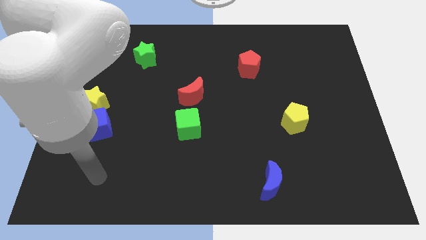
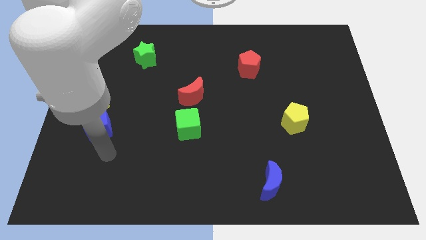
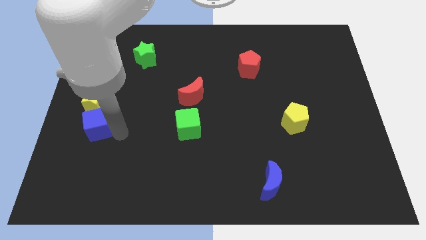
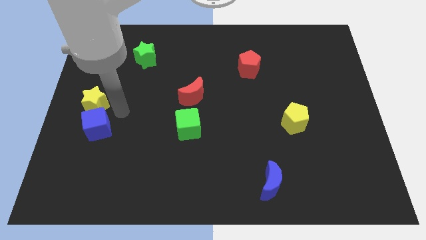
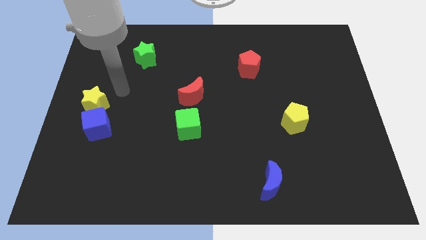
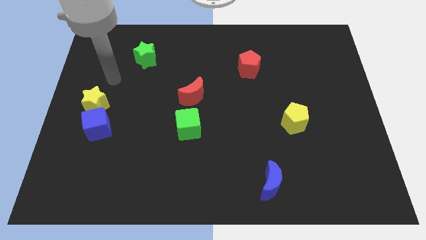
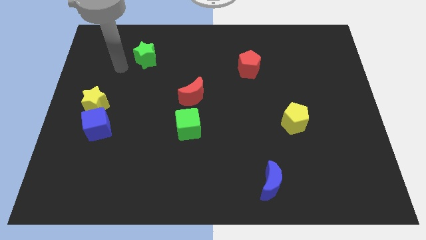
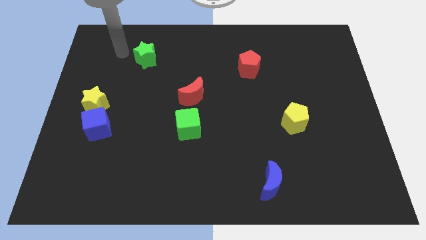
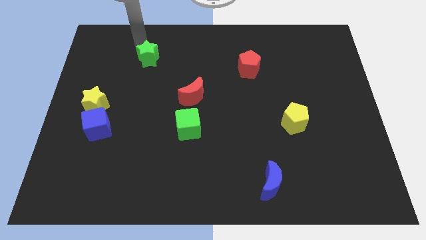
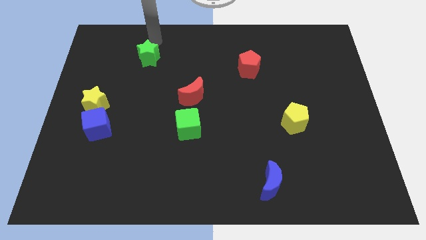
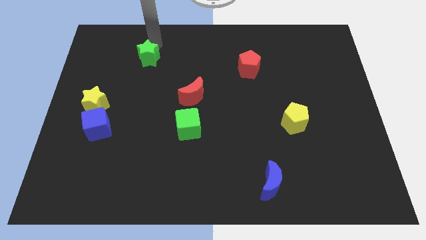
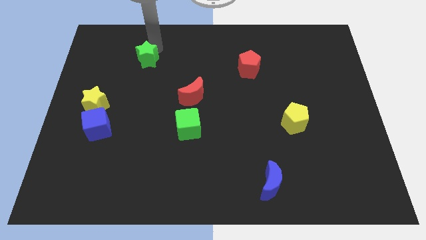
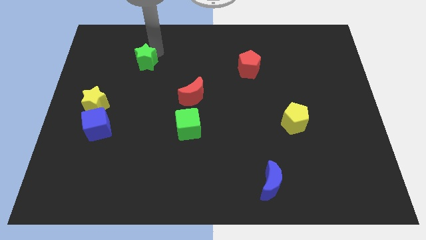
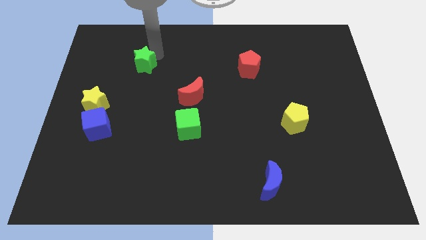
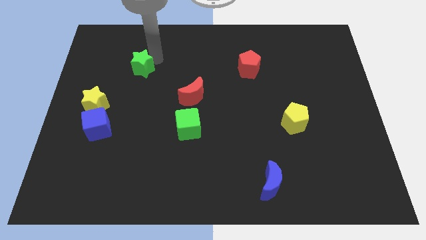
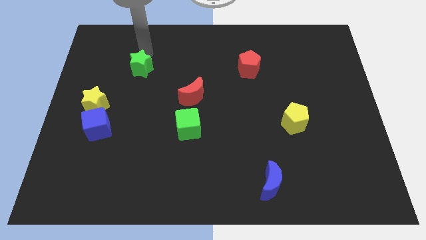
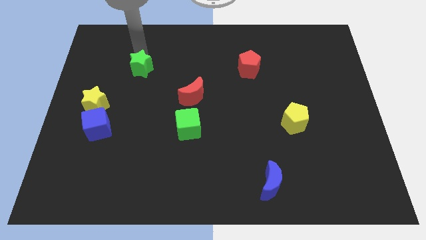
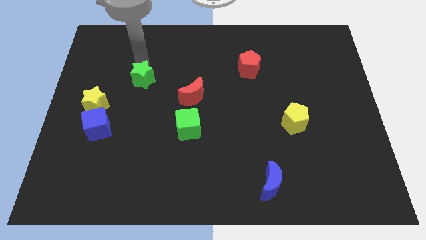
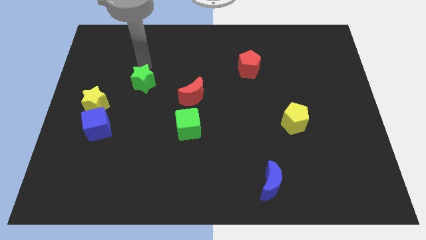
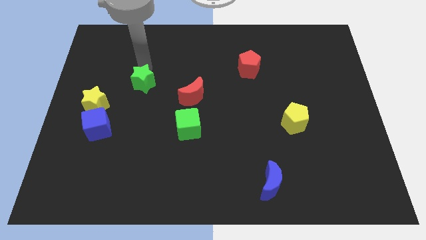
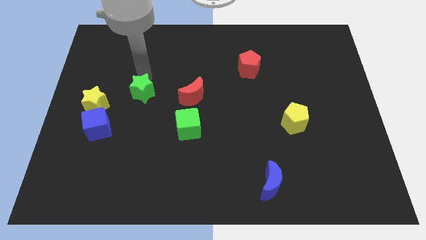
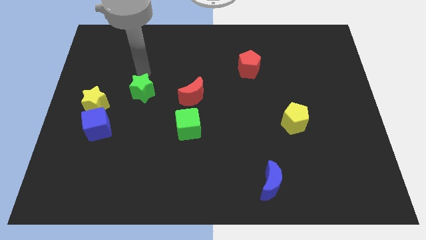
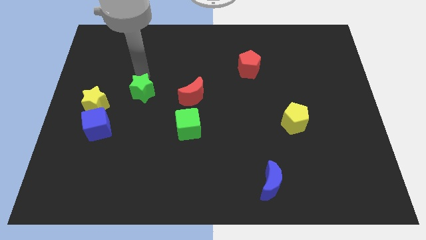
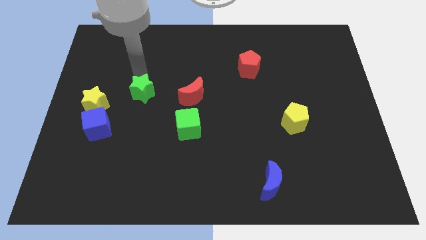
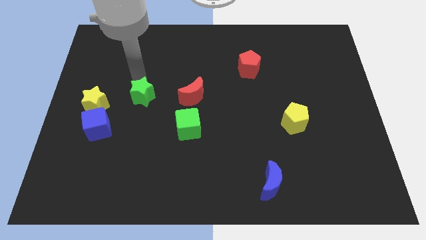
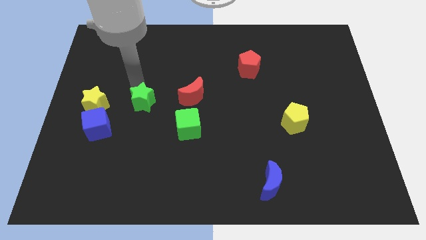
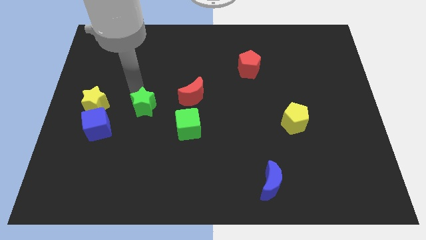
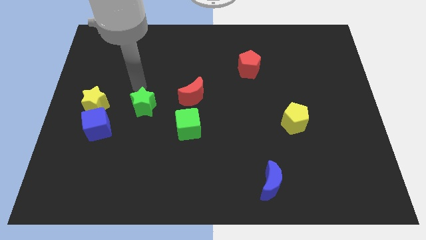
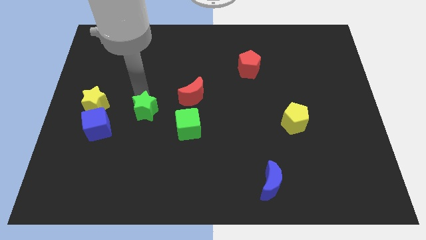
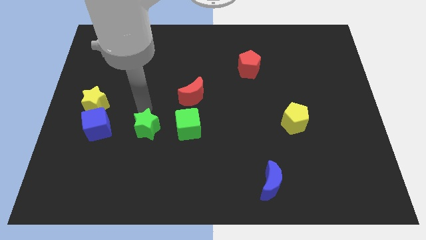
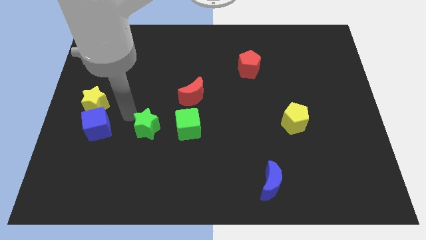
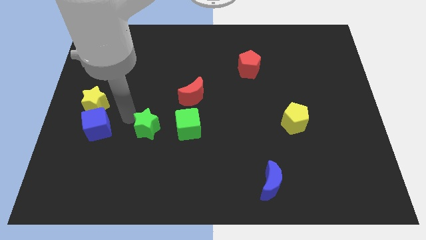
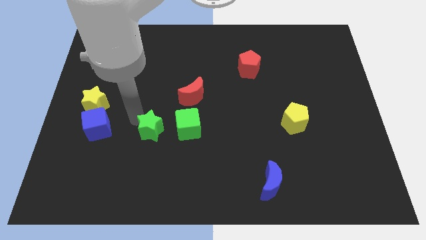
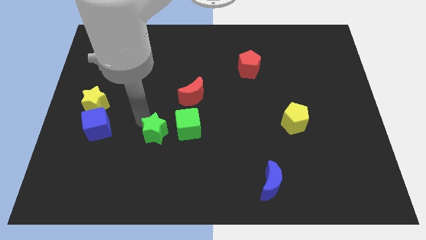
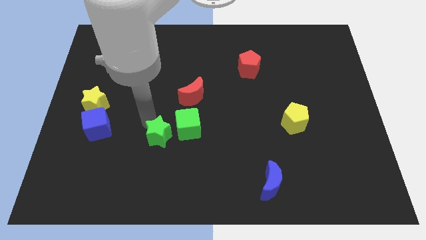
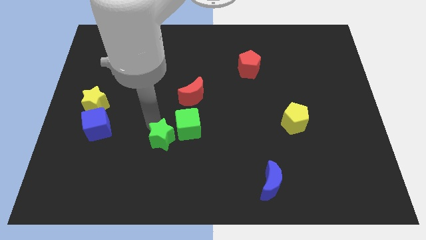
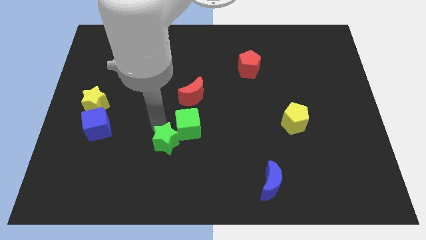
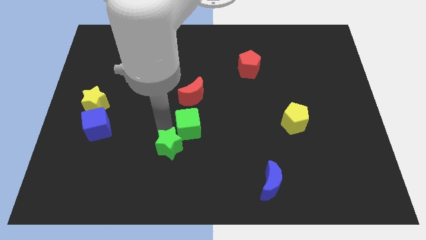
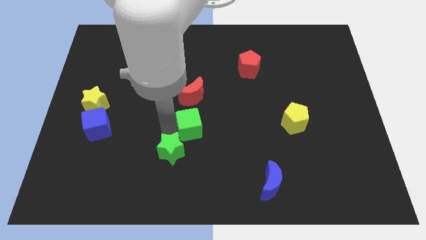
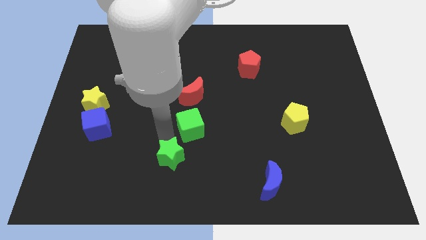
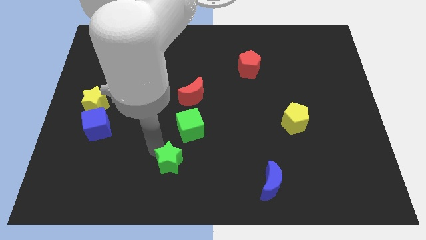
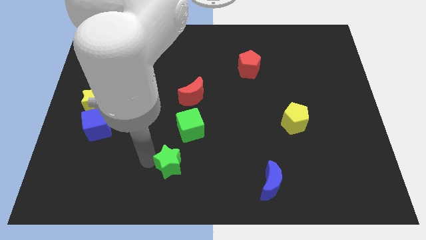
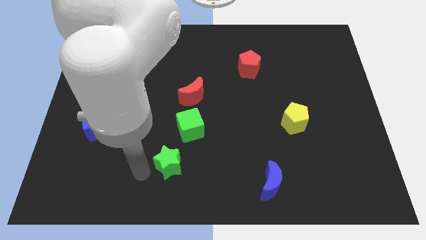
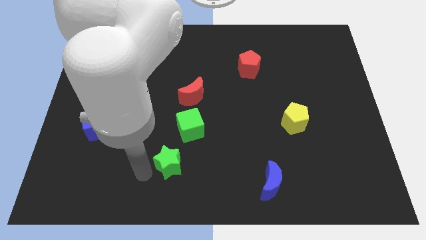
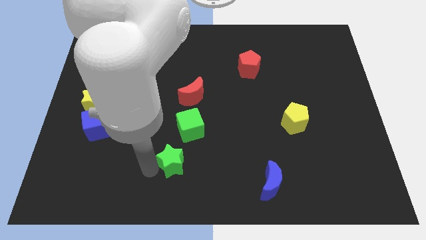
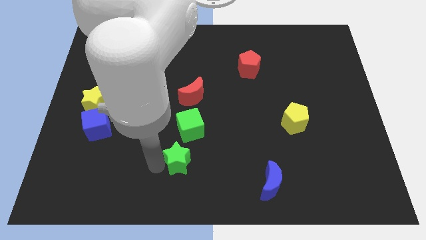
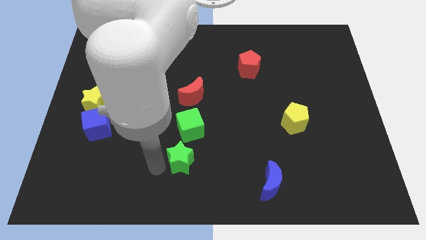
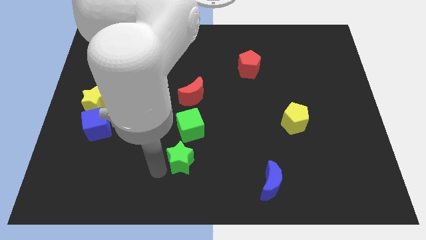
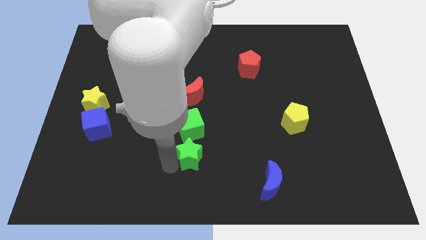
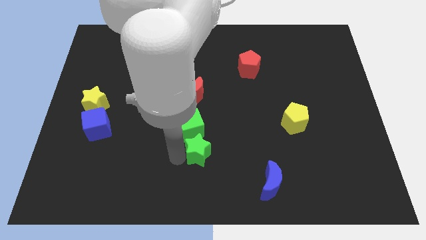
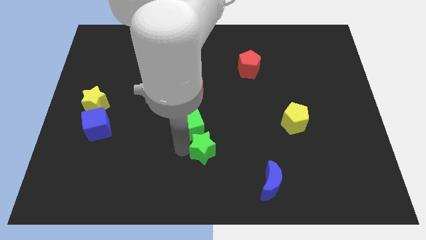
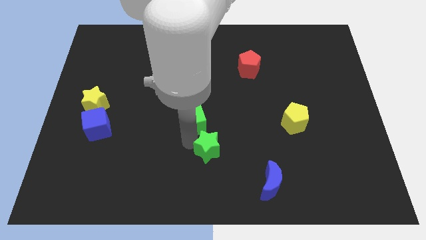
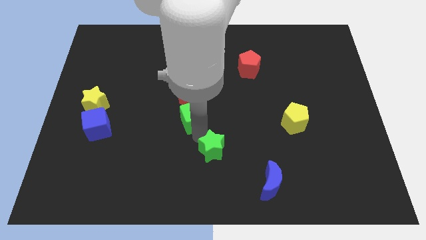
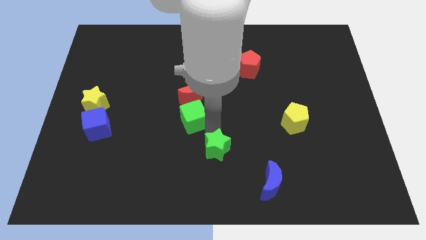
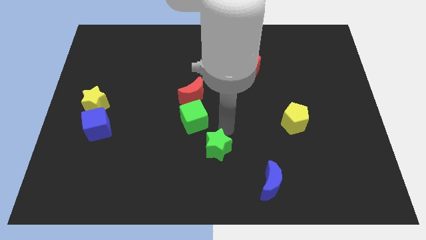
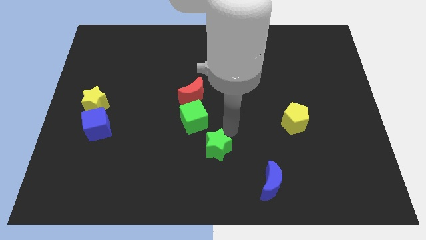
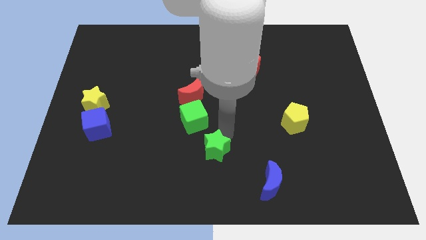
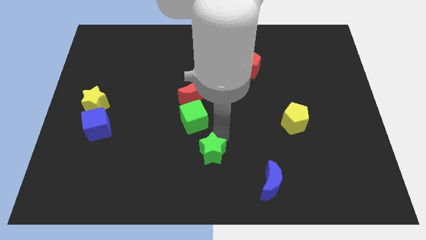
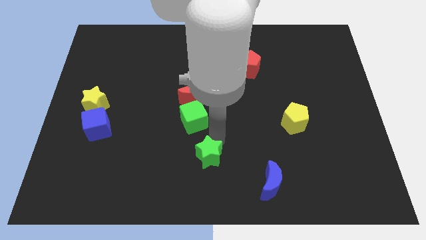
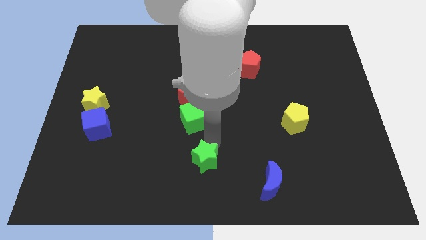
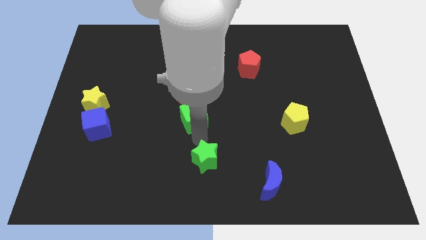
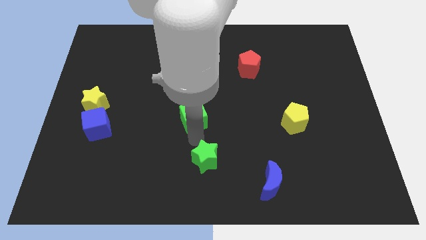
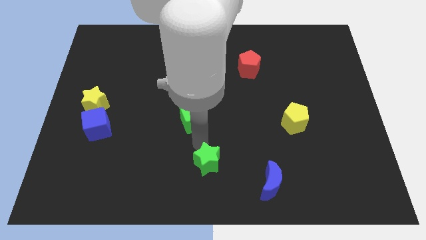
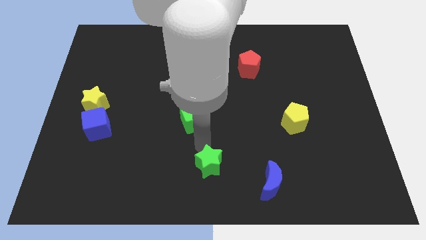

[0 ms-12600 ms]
slide the green star to the left side of the blue moon
